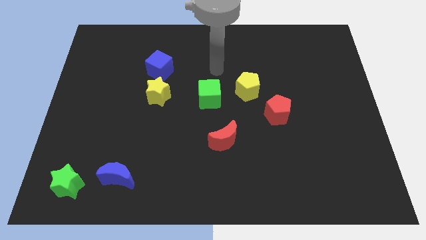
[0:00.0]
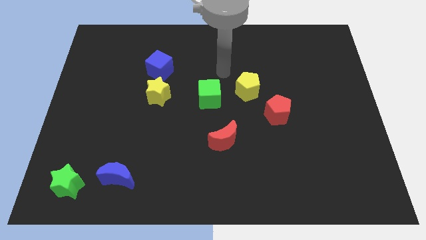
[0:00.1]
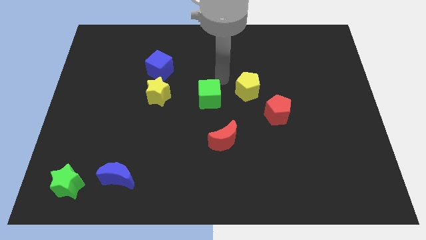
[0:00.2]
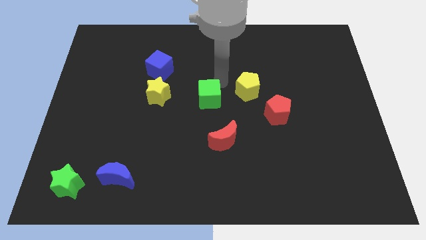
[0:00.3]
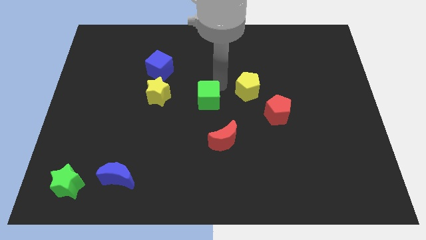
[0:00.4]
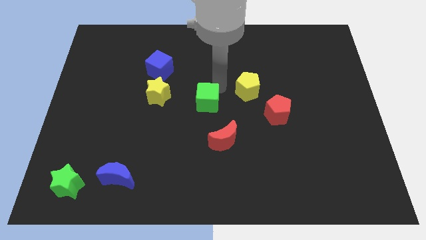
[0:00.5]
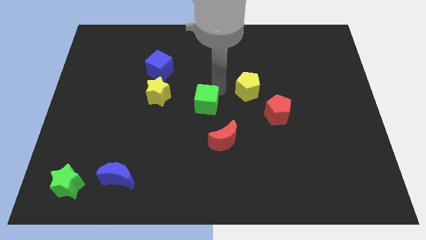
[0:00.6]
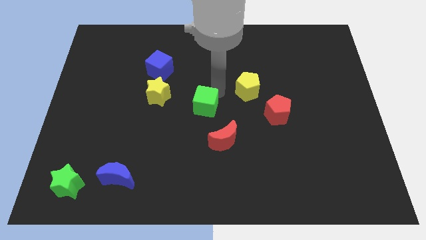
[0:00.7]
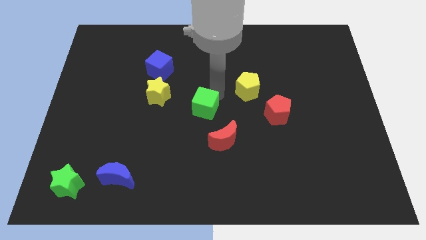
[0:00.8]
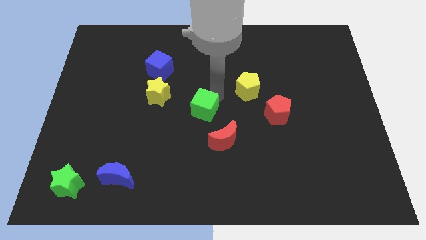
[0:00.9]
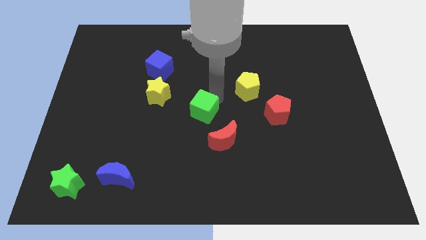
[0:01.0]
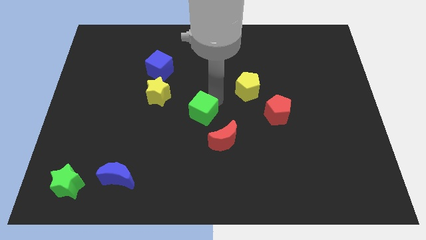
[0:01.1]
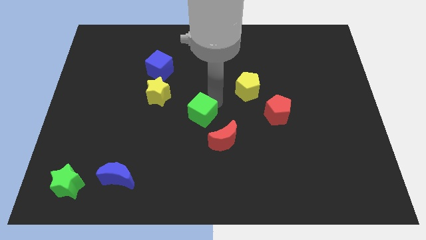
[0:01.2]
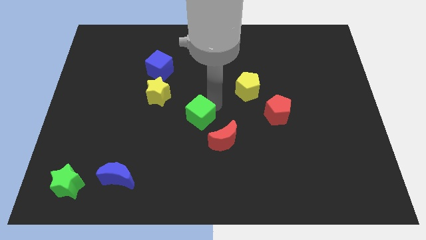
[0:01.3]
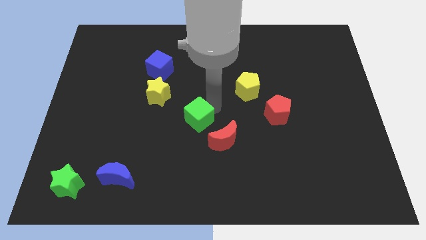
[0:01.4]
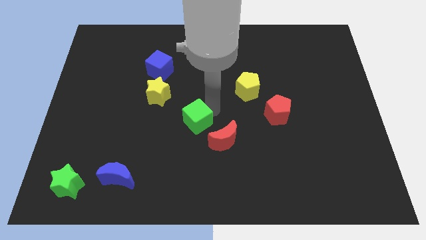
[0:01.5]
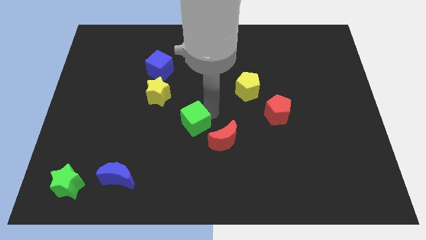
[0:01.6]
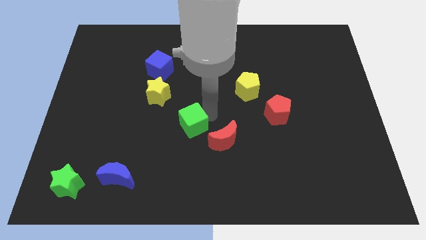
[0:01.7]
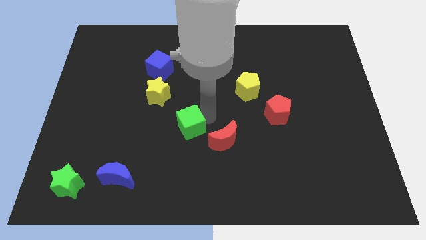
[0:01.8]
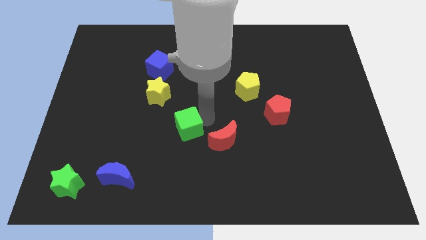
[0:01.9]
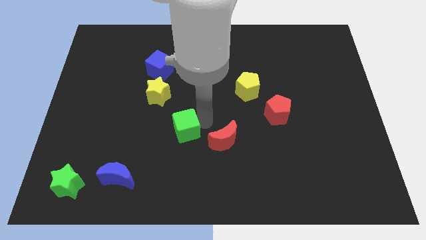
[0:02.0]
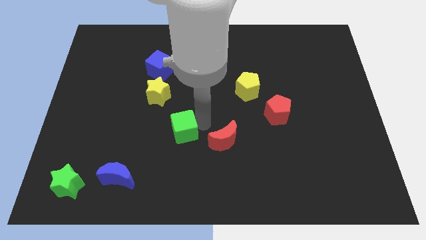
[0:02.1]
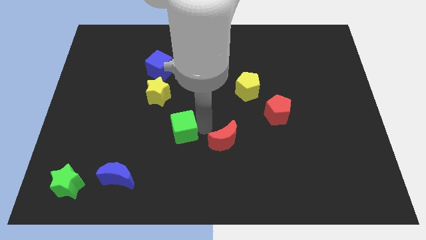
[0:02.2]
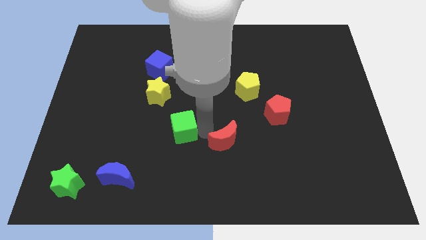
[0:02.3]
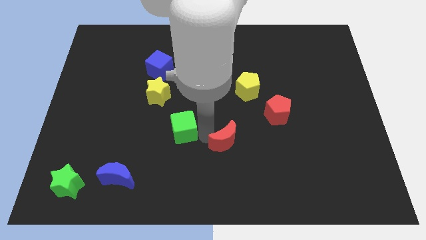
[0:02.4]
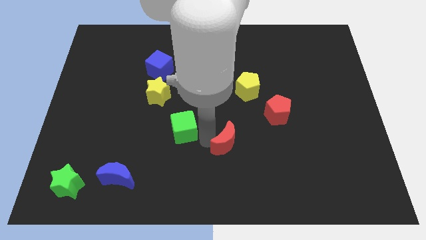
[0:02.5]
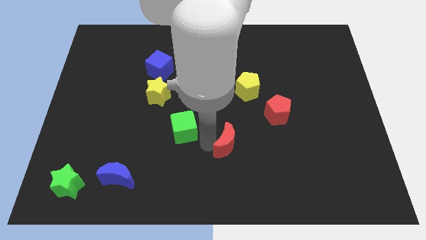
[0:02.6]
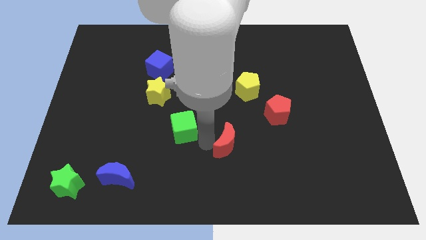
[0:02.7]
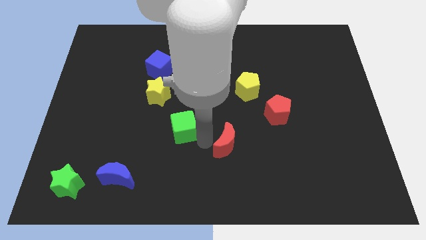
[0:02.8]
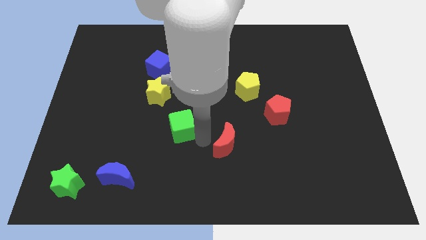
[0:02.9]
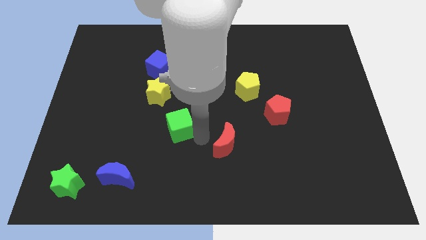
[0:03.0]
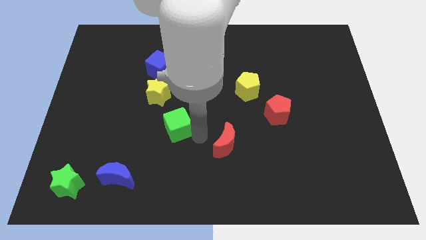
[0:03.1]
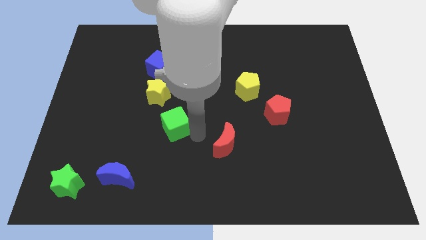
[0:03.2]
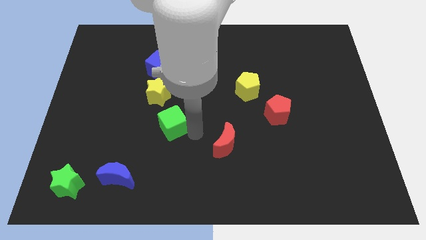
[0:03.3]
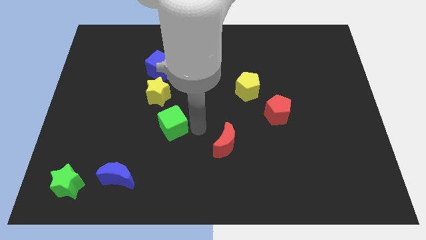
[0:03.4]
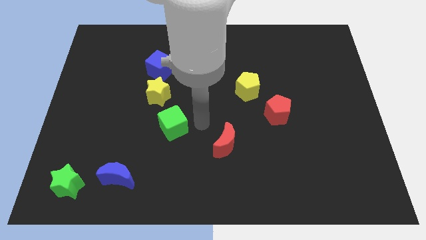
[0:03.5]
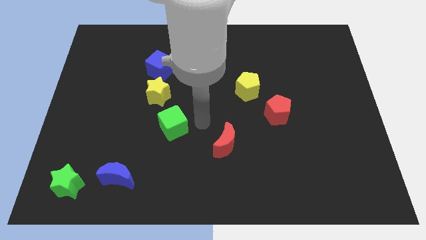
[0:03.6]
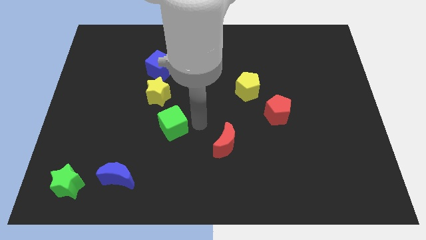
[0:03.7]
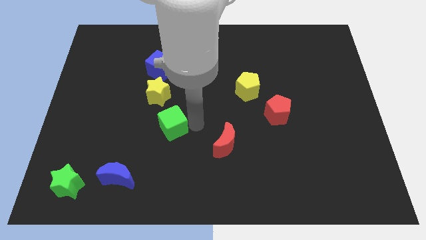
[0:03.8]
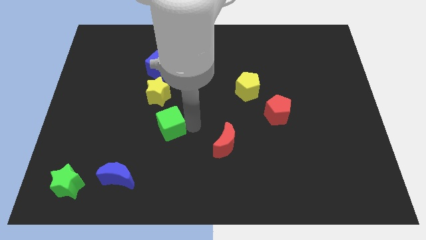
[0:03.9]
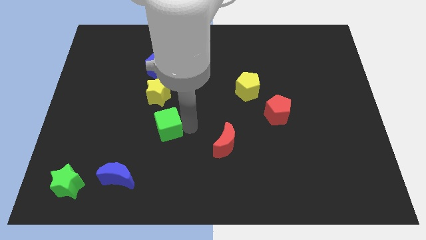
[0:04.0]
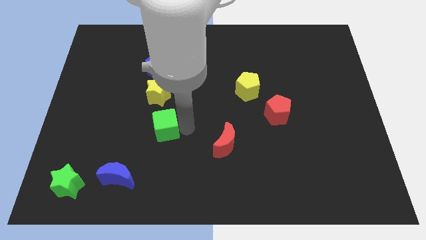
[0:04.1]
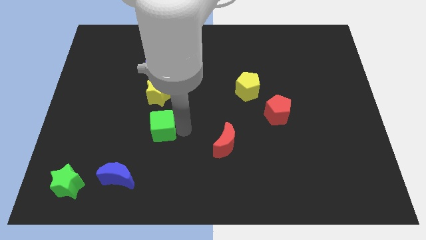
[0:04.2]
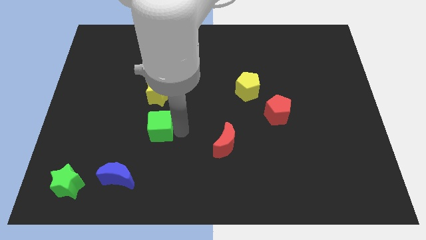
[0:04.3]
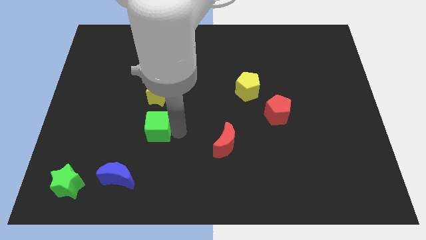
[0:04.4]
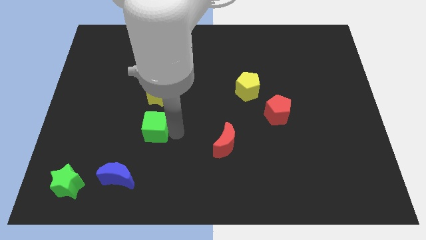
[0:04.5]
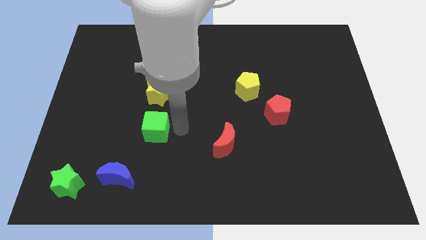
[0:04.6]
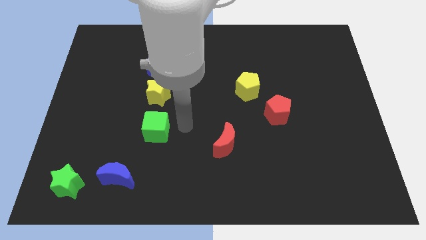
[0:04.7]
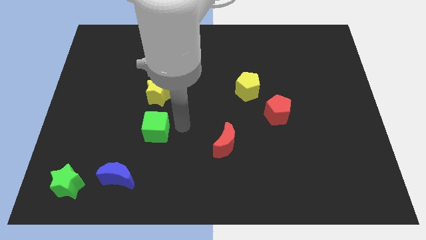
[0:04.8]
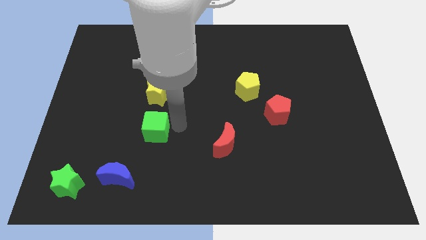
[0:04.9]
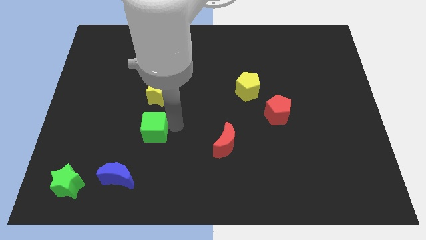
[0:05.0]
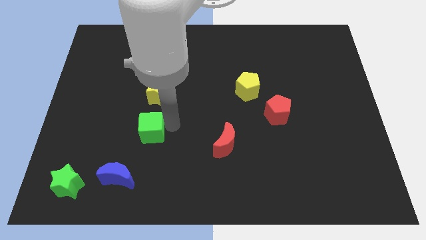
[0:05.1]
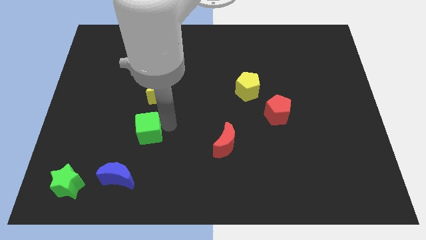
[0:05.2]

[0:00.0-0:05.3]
push the green cube above the blue moon
